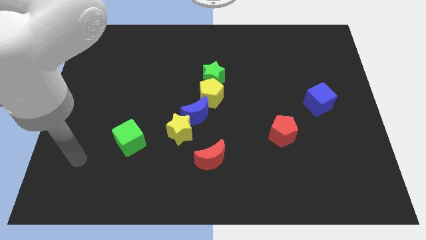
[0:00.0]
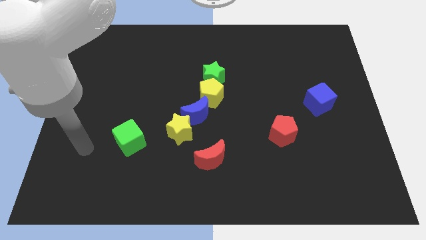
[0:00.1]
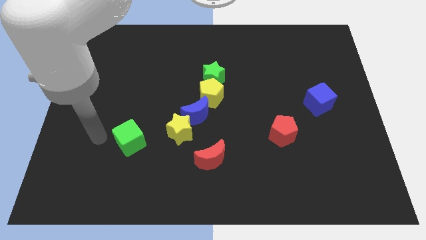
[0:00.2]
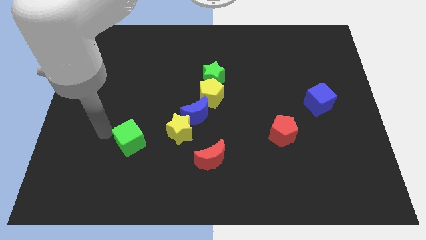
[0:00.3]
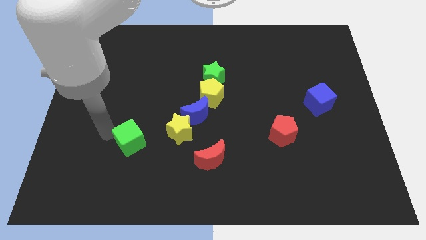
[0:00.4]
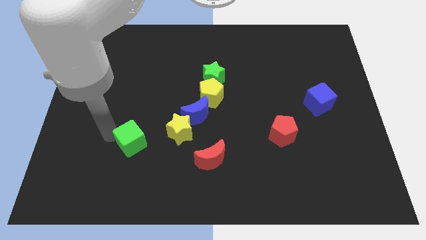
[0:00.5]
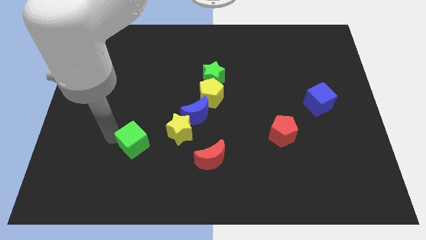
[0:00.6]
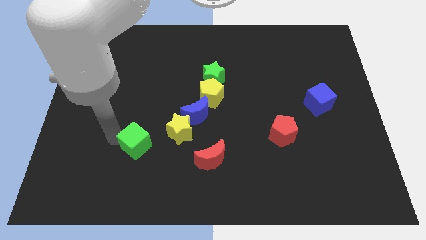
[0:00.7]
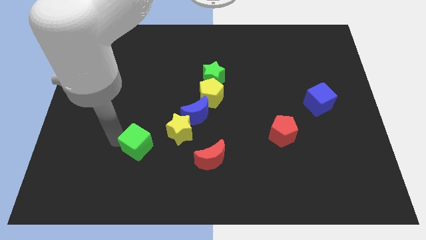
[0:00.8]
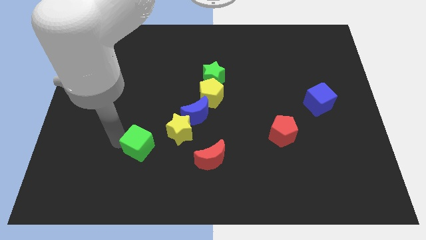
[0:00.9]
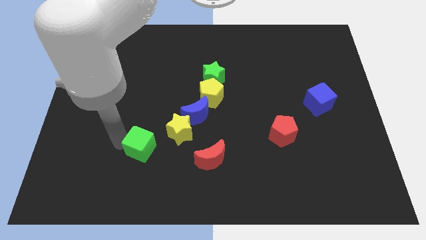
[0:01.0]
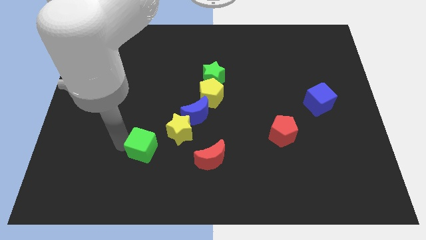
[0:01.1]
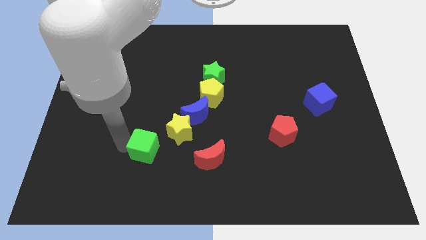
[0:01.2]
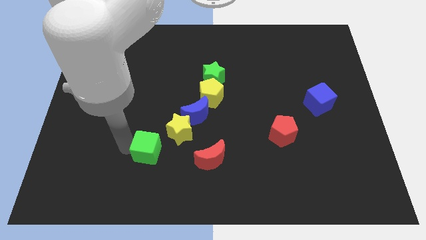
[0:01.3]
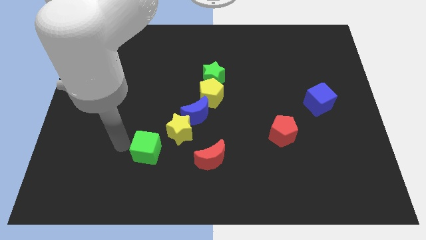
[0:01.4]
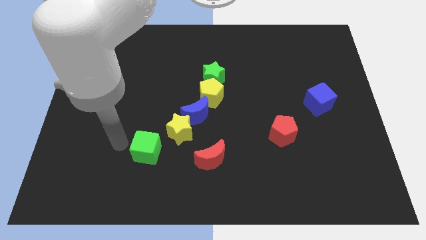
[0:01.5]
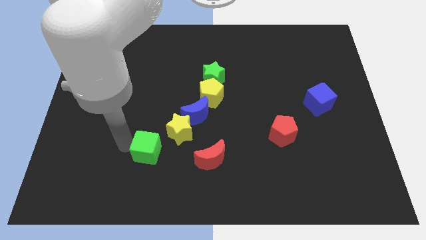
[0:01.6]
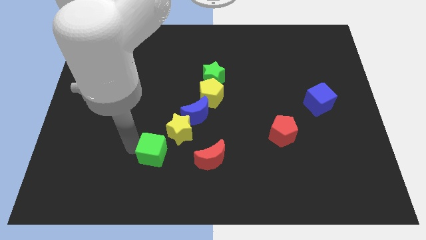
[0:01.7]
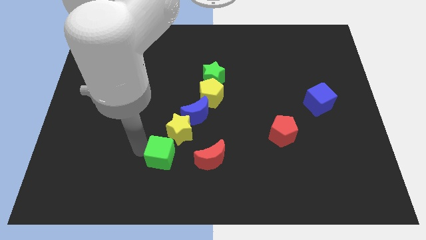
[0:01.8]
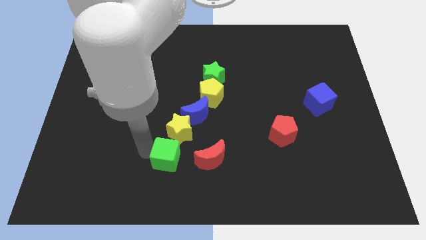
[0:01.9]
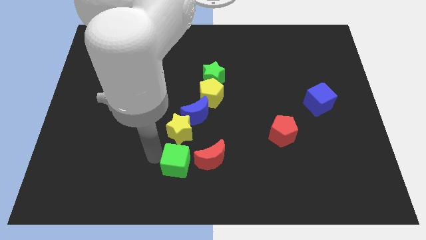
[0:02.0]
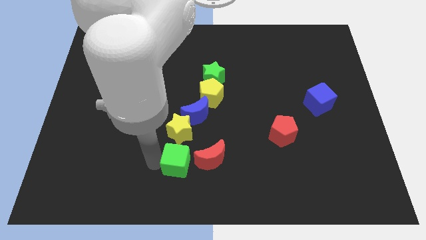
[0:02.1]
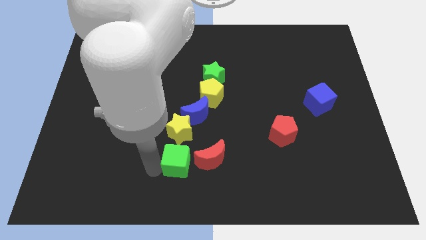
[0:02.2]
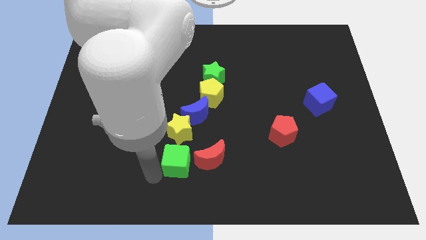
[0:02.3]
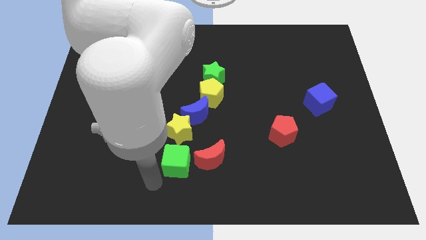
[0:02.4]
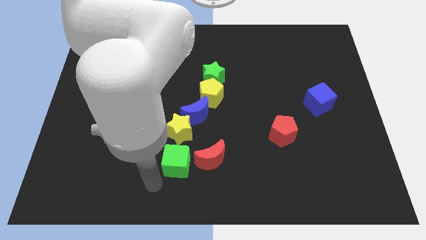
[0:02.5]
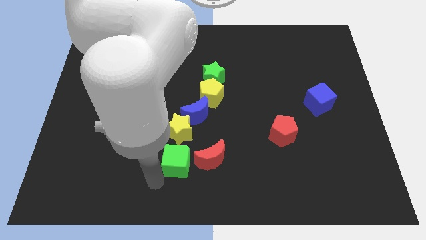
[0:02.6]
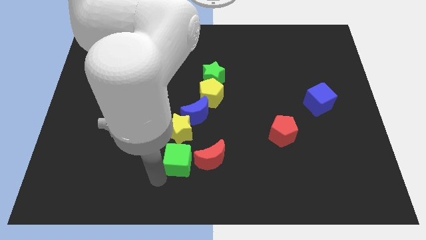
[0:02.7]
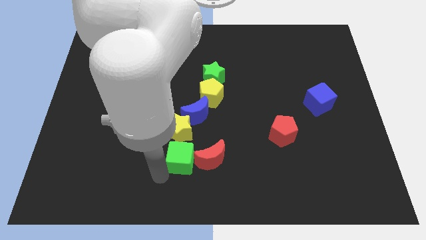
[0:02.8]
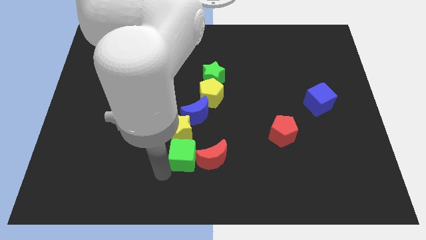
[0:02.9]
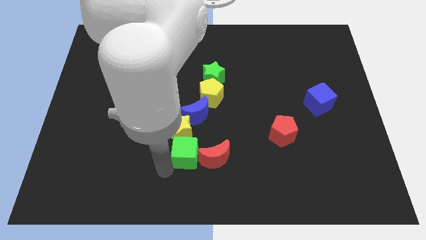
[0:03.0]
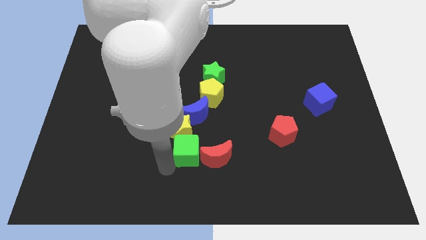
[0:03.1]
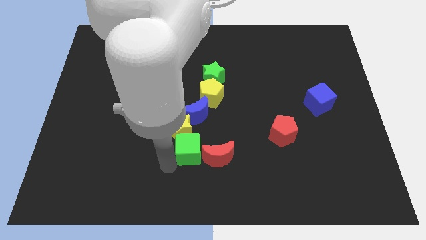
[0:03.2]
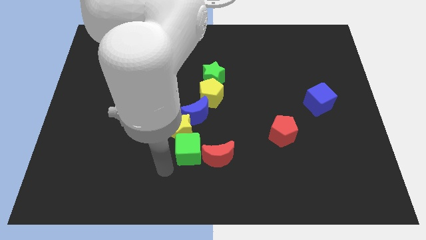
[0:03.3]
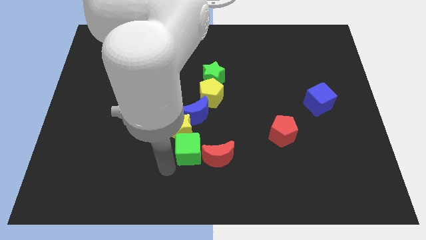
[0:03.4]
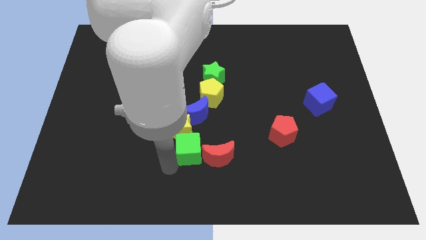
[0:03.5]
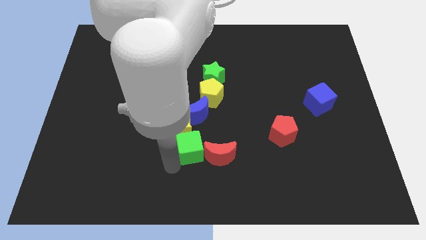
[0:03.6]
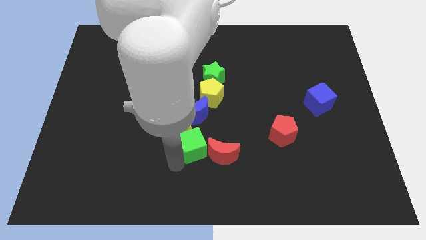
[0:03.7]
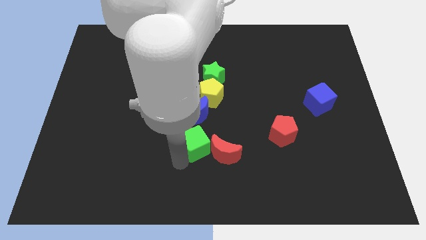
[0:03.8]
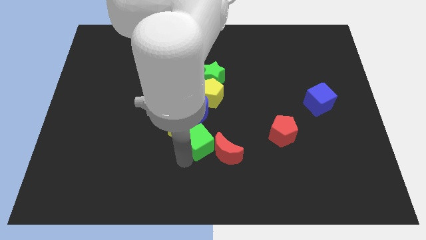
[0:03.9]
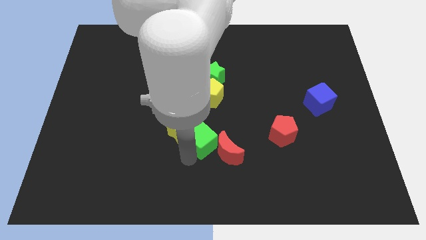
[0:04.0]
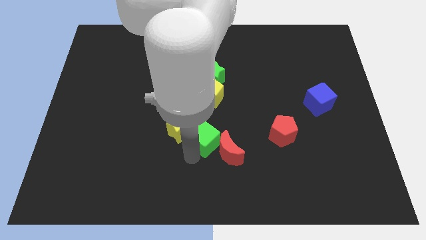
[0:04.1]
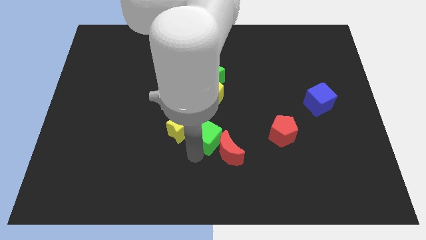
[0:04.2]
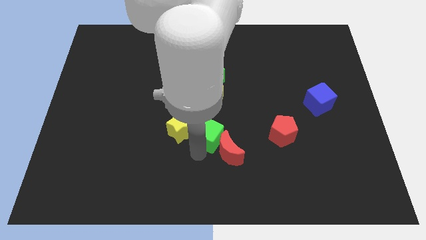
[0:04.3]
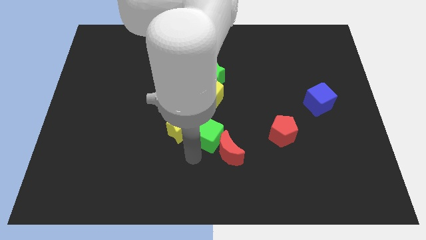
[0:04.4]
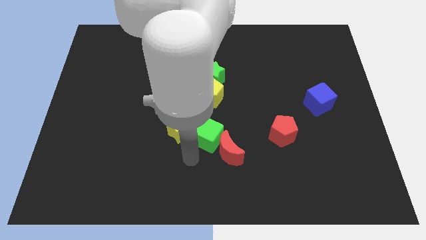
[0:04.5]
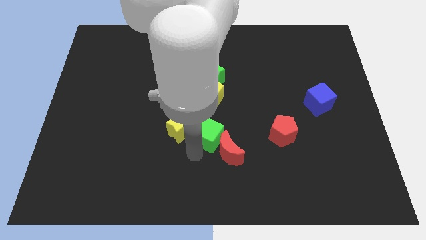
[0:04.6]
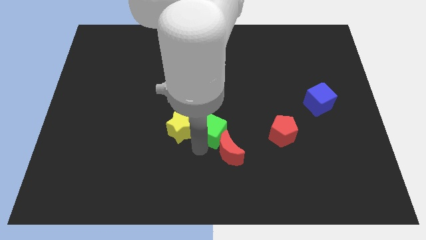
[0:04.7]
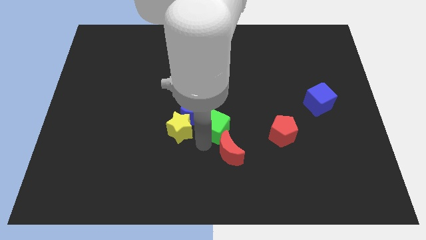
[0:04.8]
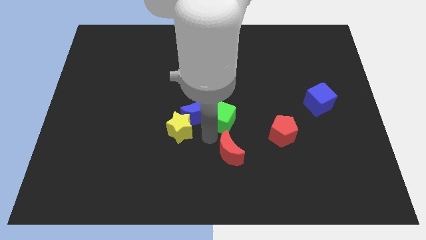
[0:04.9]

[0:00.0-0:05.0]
move the green cube to the top right side of the blue moon

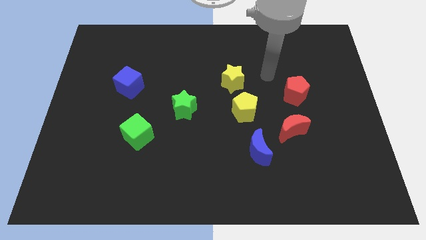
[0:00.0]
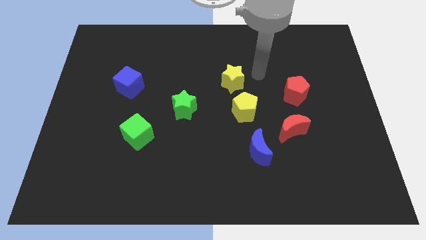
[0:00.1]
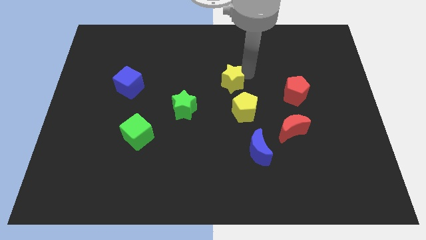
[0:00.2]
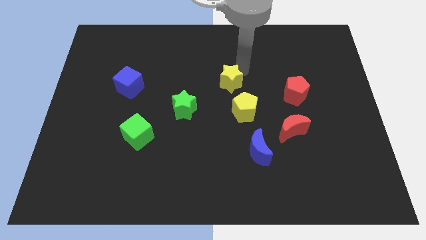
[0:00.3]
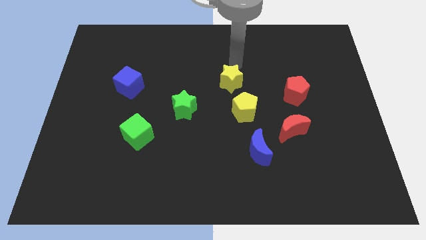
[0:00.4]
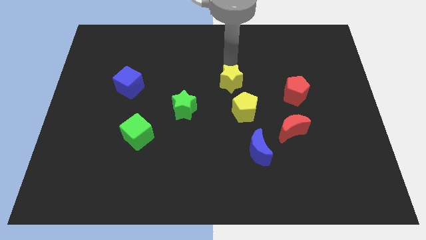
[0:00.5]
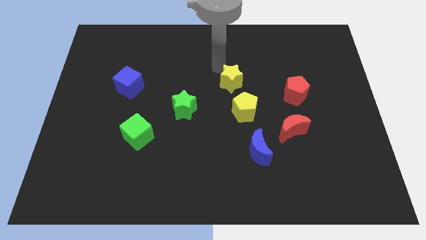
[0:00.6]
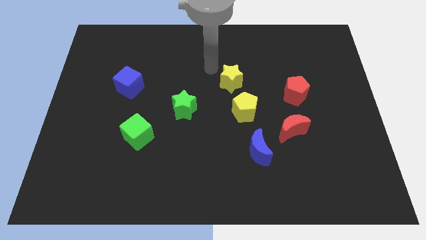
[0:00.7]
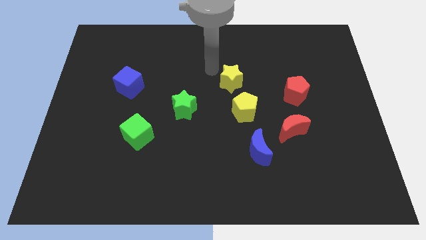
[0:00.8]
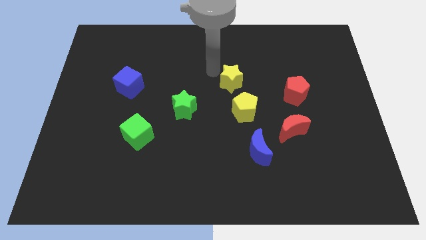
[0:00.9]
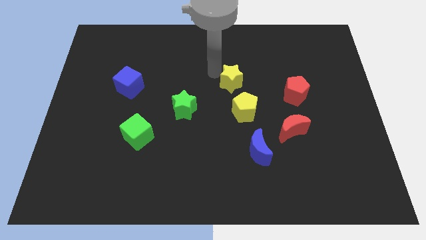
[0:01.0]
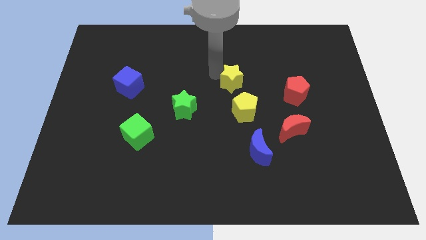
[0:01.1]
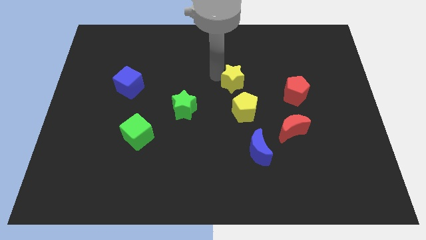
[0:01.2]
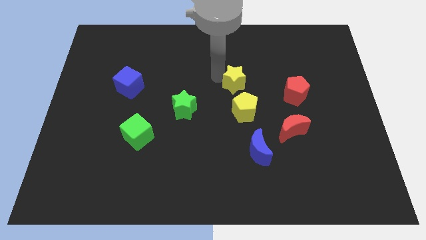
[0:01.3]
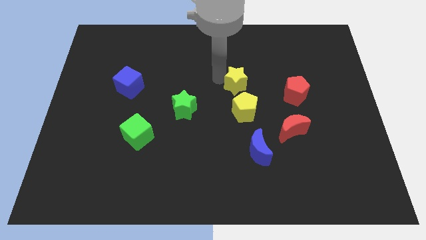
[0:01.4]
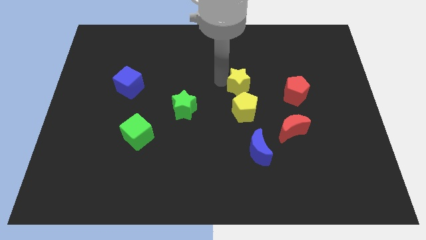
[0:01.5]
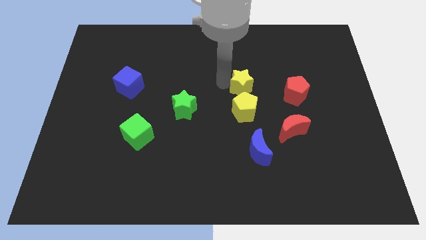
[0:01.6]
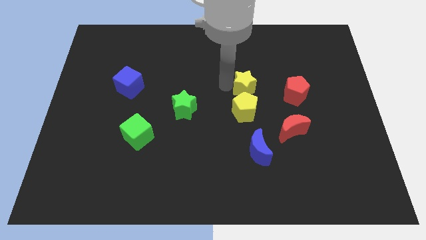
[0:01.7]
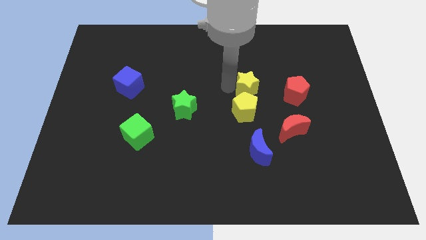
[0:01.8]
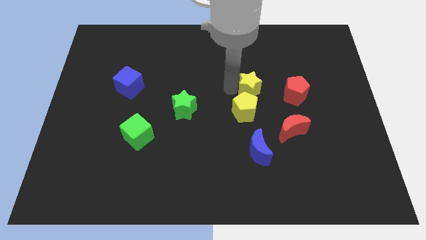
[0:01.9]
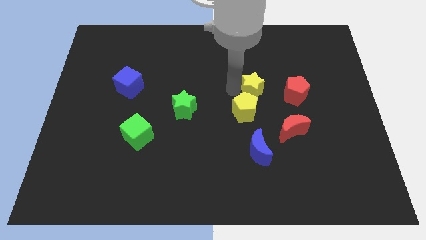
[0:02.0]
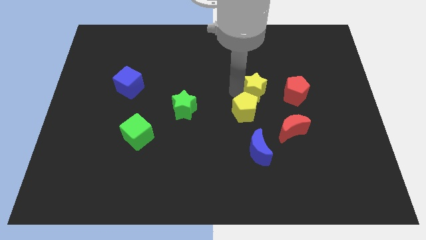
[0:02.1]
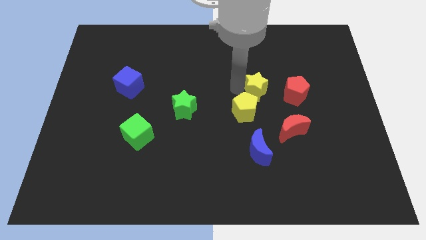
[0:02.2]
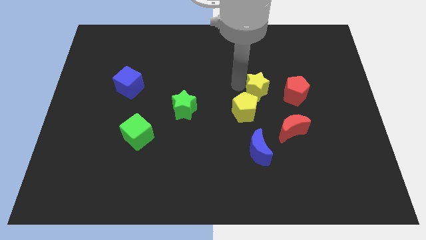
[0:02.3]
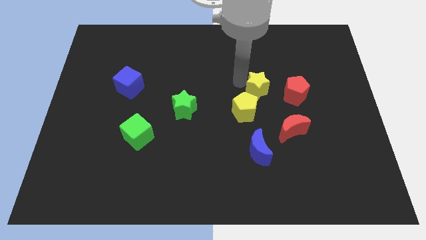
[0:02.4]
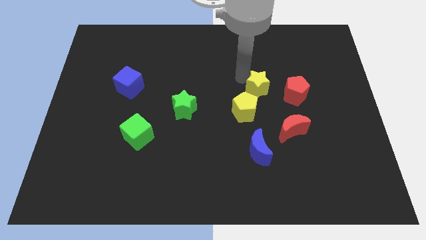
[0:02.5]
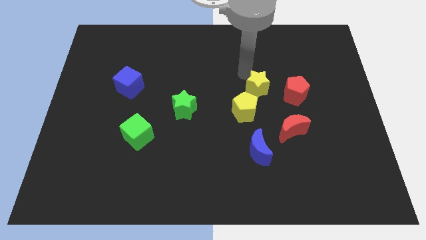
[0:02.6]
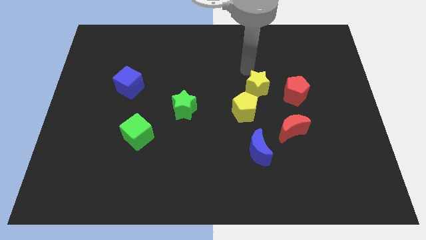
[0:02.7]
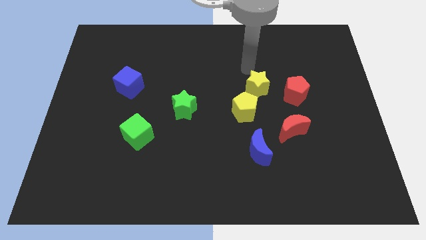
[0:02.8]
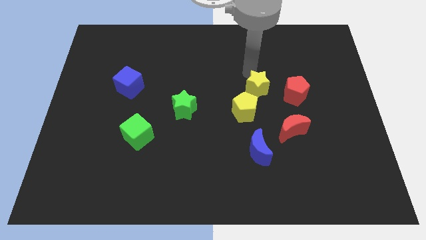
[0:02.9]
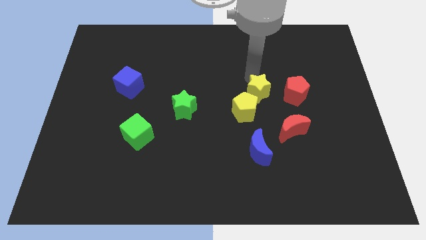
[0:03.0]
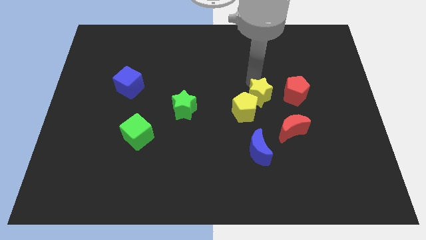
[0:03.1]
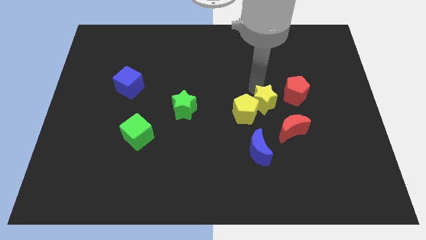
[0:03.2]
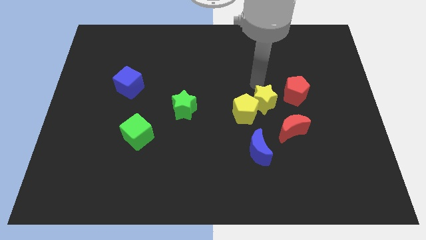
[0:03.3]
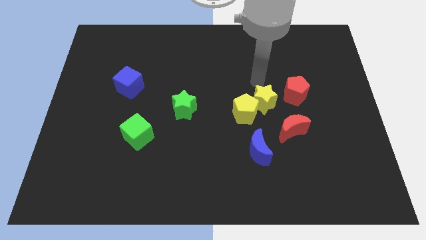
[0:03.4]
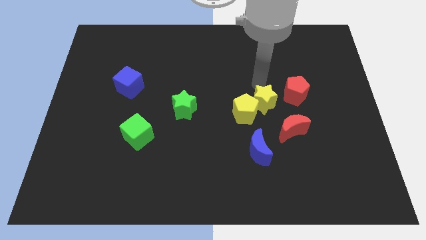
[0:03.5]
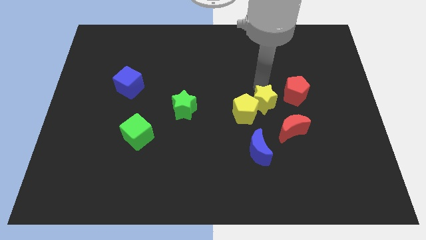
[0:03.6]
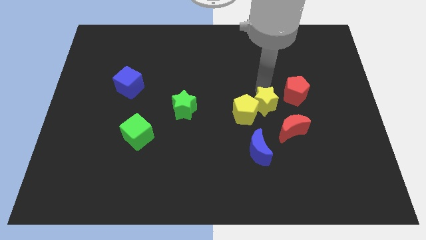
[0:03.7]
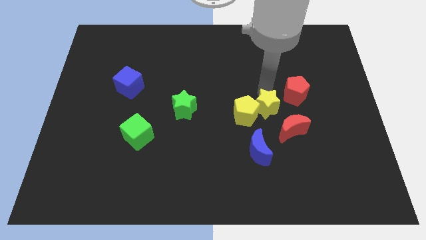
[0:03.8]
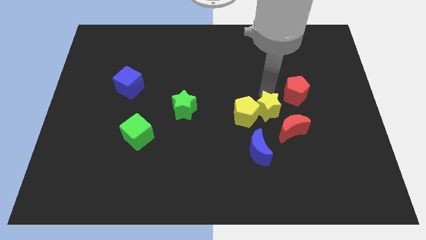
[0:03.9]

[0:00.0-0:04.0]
slide the yellow star to the bottom right side of the yellow pentagon
